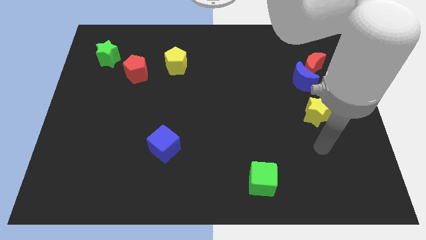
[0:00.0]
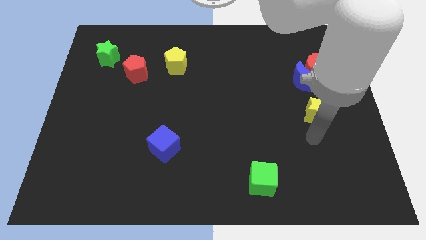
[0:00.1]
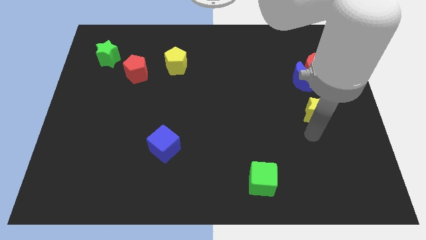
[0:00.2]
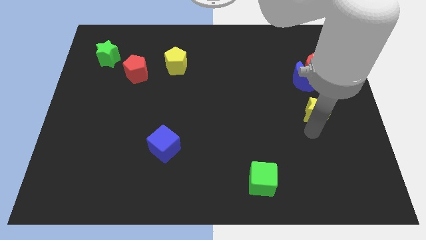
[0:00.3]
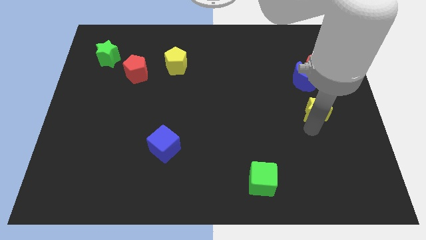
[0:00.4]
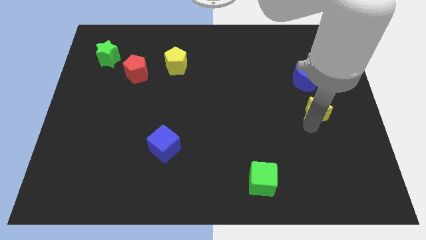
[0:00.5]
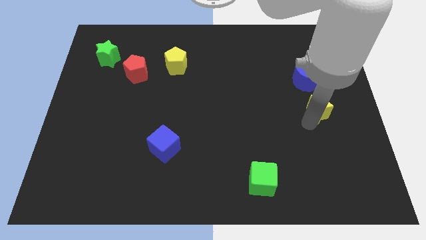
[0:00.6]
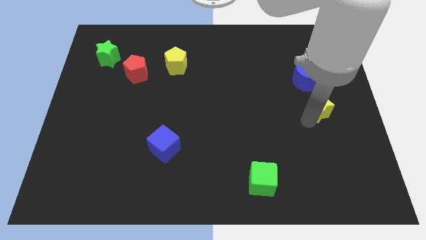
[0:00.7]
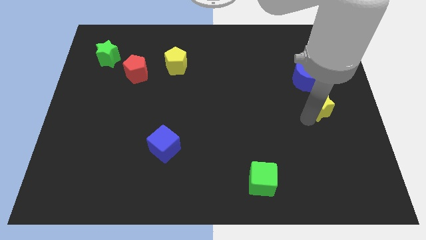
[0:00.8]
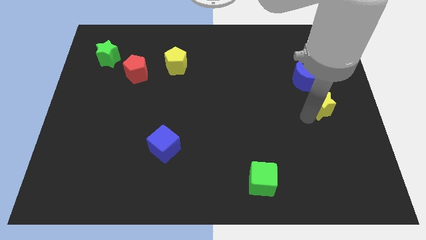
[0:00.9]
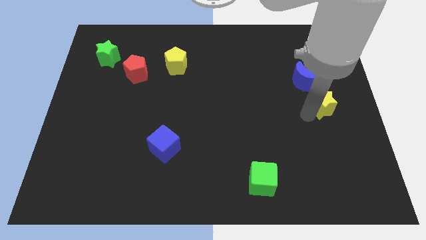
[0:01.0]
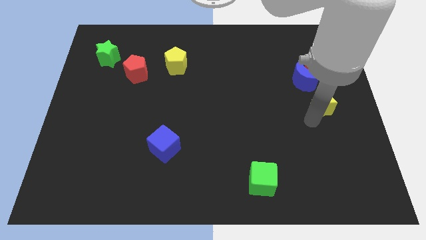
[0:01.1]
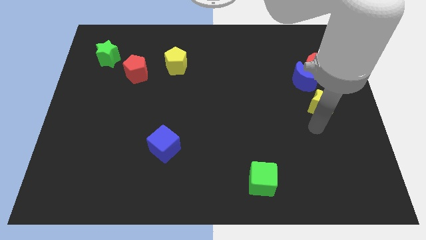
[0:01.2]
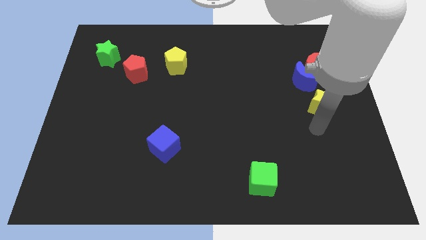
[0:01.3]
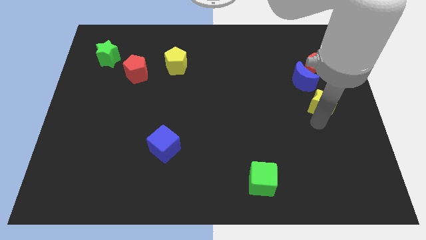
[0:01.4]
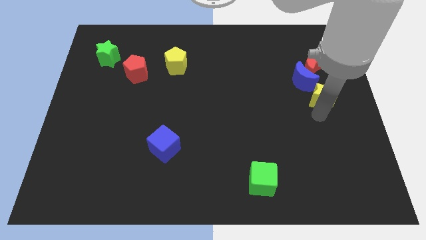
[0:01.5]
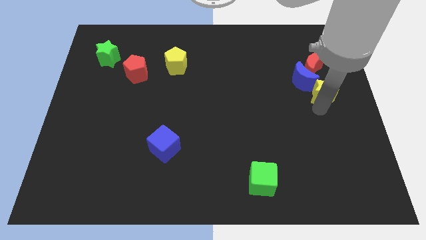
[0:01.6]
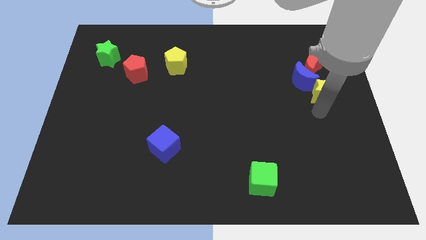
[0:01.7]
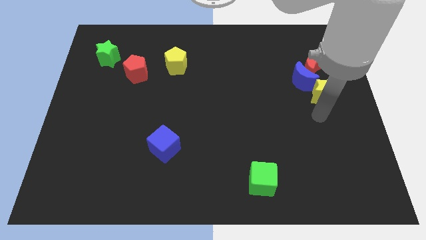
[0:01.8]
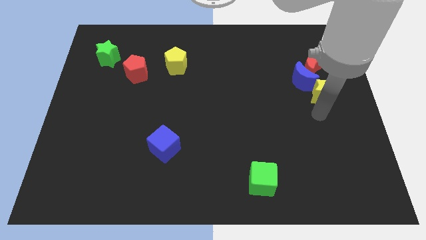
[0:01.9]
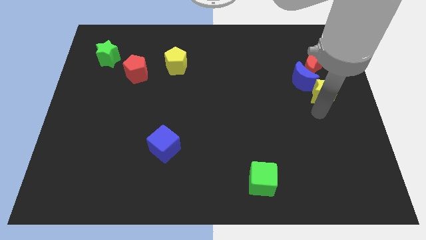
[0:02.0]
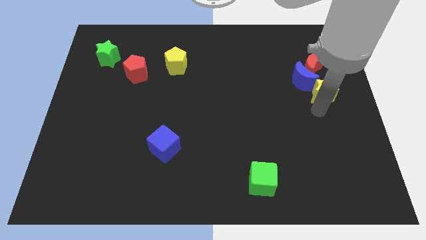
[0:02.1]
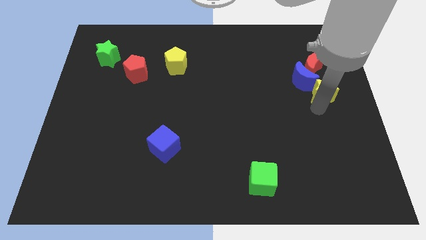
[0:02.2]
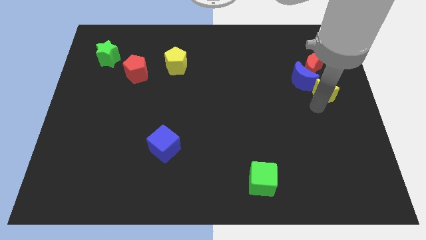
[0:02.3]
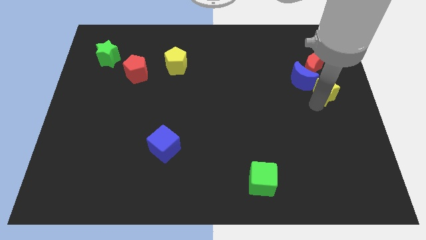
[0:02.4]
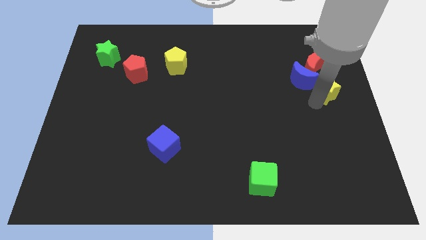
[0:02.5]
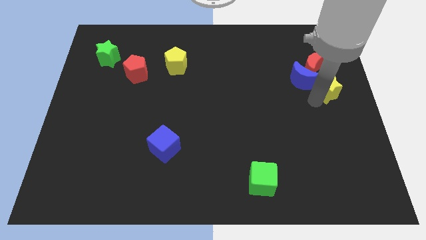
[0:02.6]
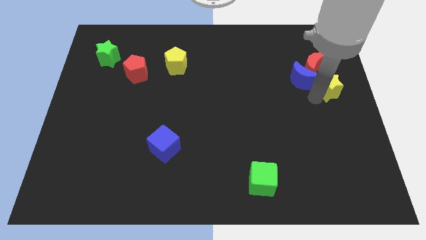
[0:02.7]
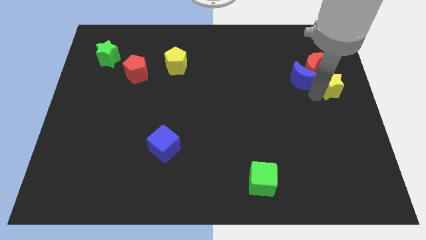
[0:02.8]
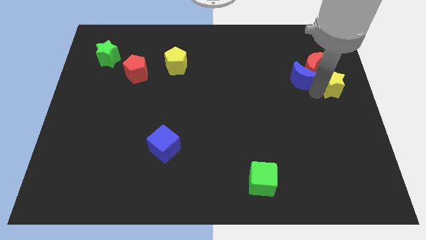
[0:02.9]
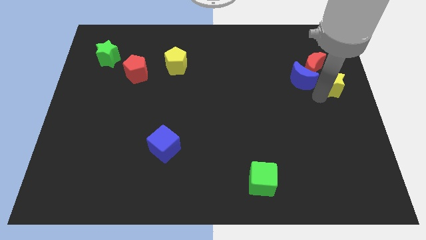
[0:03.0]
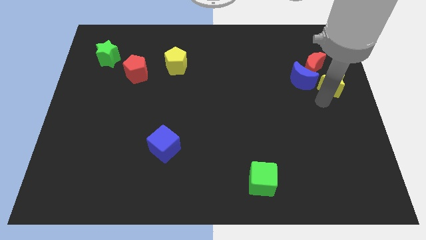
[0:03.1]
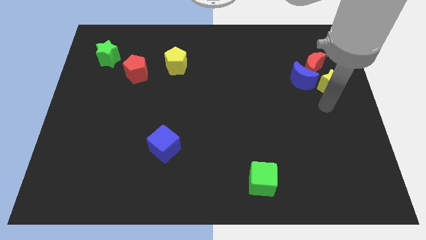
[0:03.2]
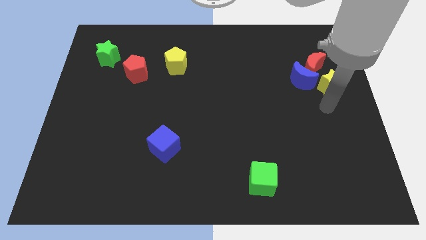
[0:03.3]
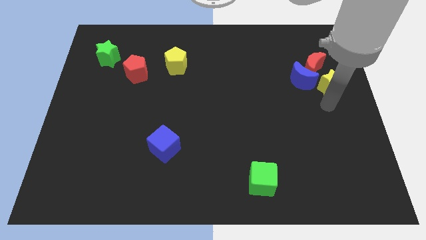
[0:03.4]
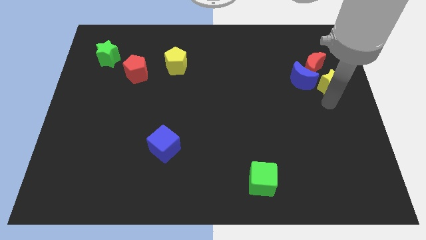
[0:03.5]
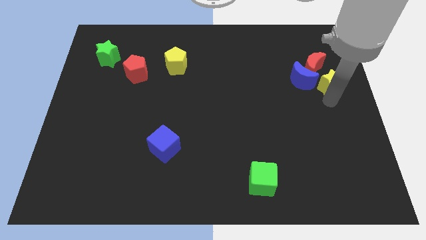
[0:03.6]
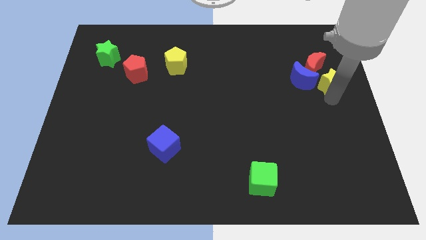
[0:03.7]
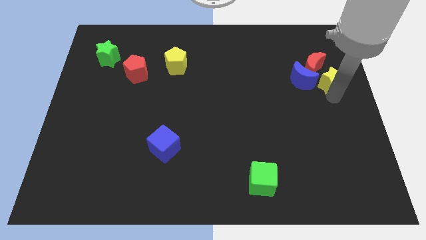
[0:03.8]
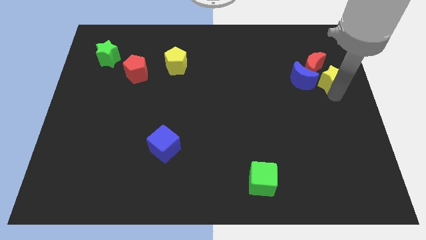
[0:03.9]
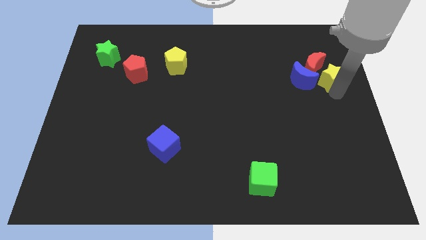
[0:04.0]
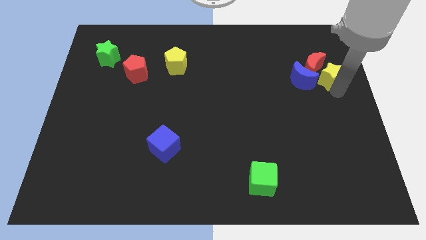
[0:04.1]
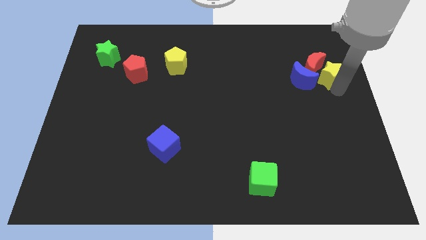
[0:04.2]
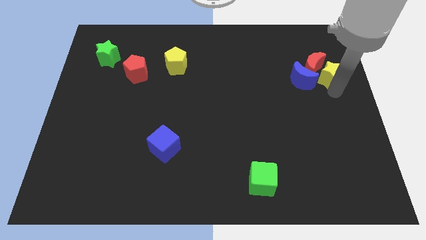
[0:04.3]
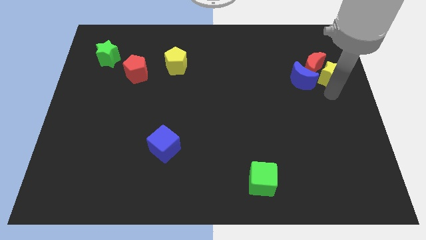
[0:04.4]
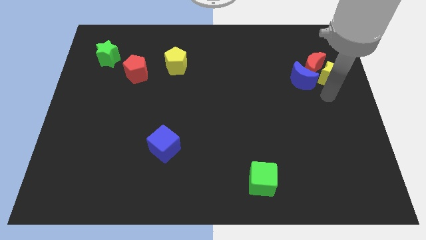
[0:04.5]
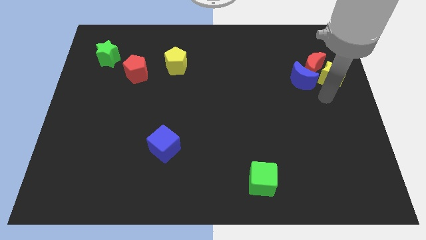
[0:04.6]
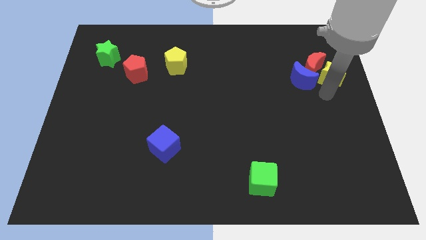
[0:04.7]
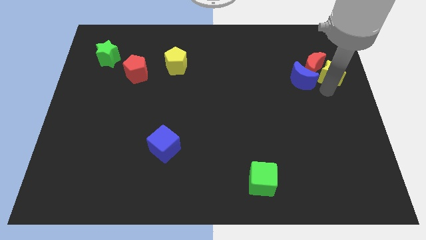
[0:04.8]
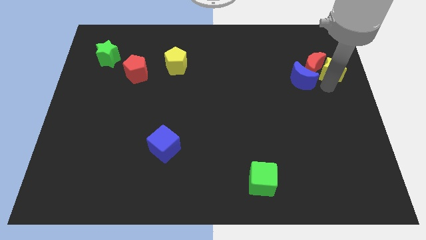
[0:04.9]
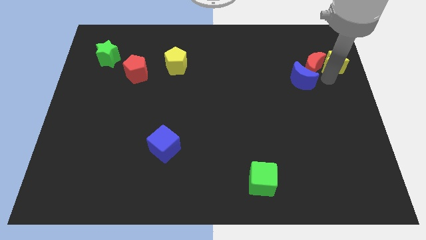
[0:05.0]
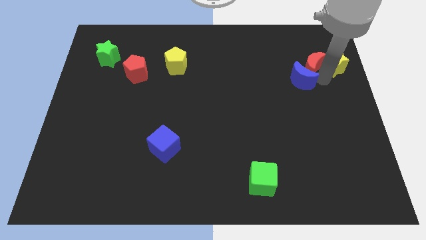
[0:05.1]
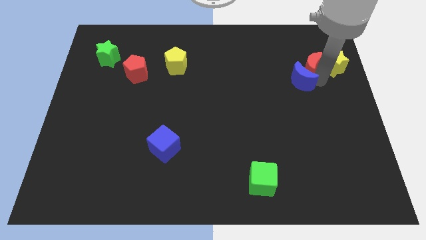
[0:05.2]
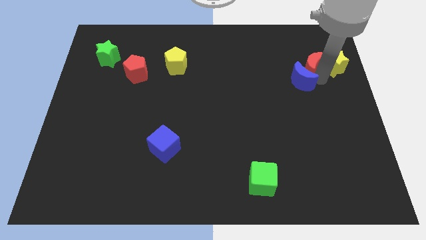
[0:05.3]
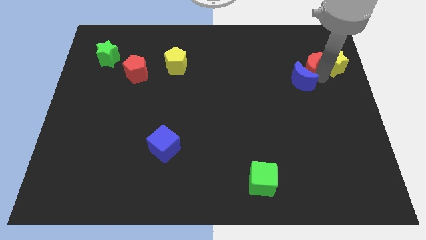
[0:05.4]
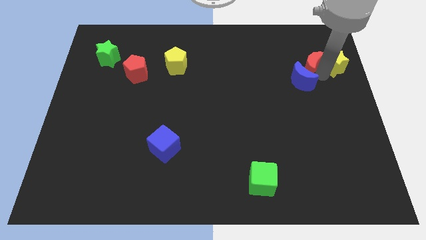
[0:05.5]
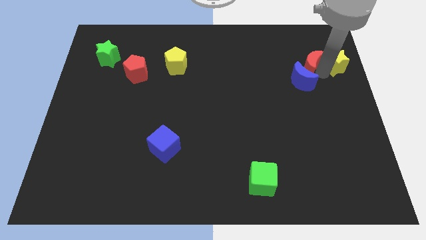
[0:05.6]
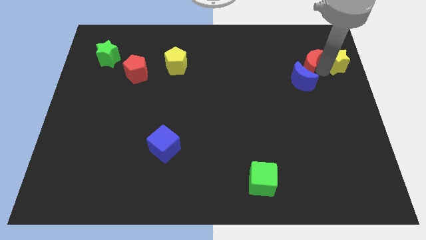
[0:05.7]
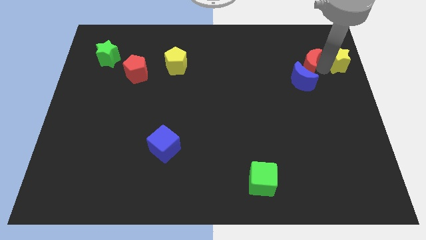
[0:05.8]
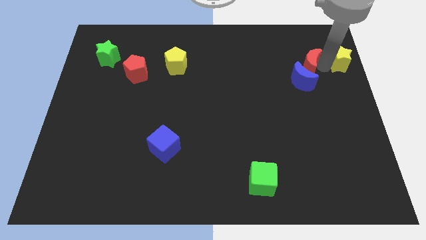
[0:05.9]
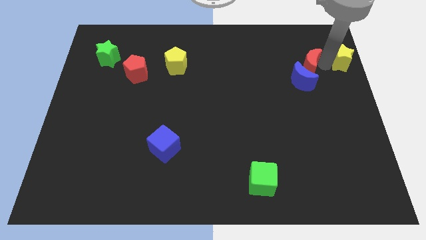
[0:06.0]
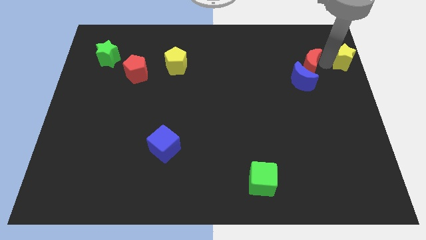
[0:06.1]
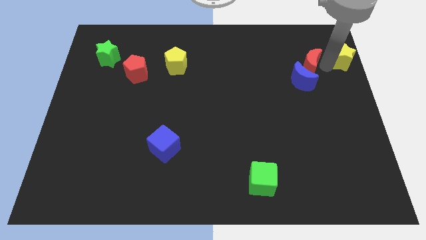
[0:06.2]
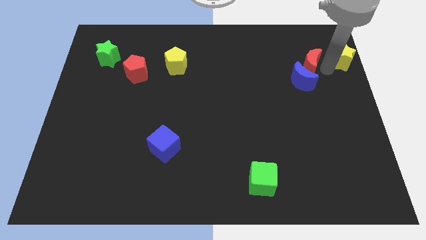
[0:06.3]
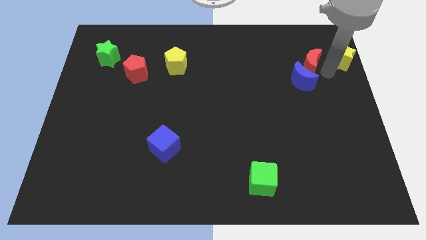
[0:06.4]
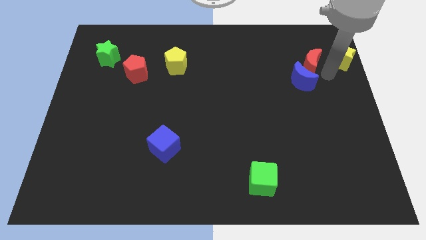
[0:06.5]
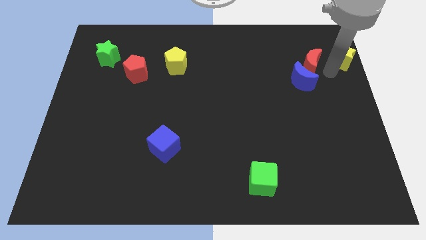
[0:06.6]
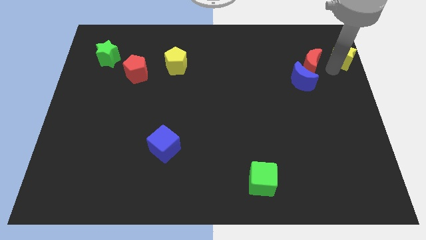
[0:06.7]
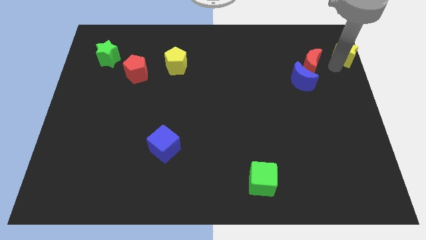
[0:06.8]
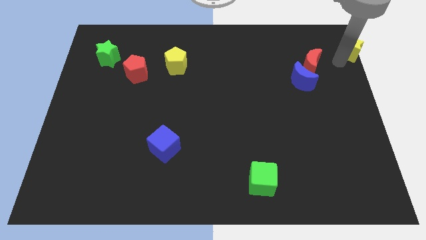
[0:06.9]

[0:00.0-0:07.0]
slide the yellow star to the top right of the board
